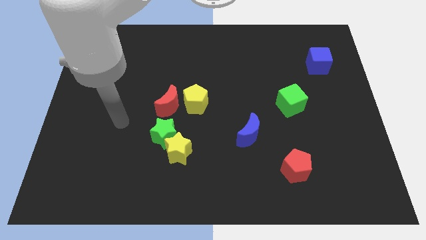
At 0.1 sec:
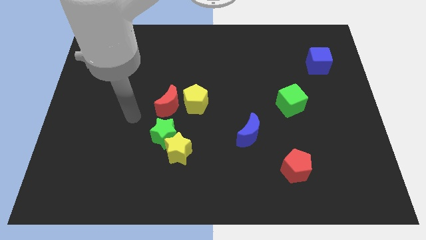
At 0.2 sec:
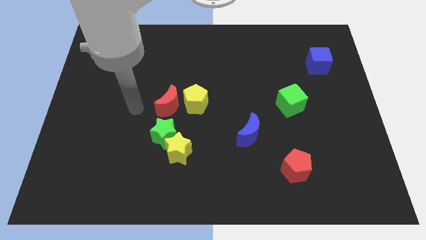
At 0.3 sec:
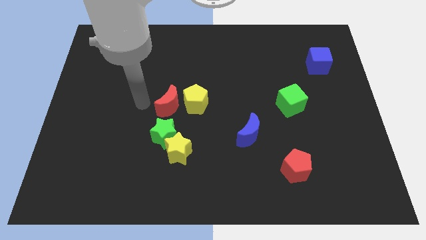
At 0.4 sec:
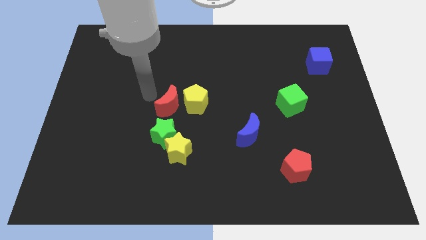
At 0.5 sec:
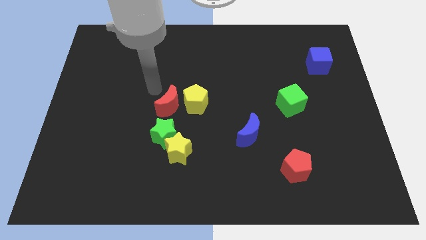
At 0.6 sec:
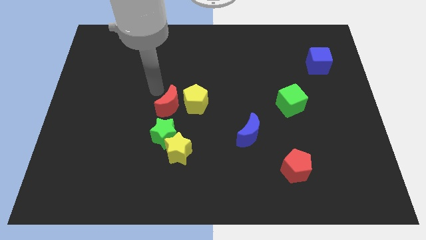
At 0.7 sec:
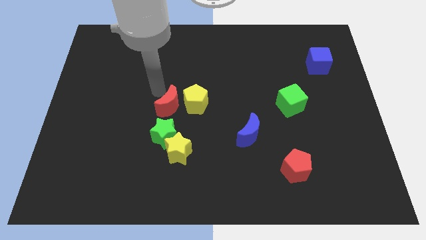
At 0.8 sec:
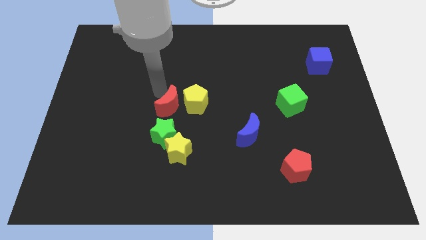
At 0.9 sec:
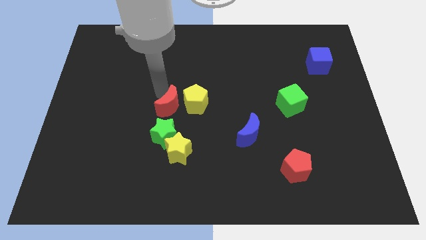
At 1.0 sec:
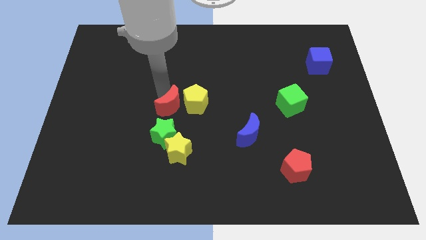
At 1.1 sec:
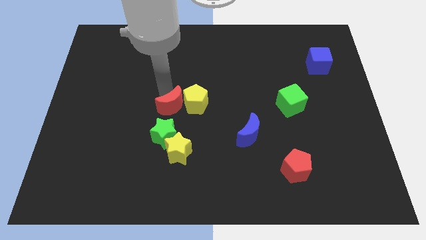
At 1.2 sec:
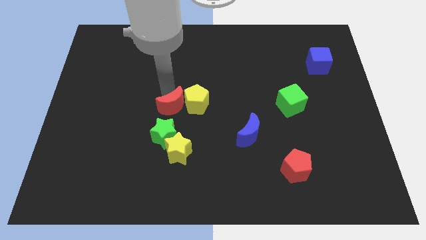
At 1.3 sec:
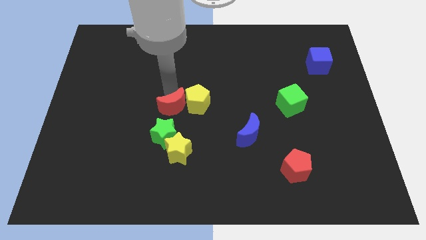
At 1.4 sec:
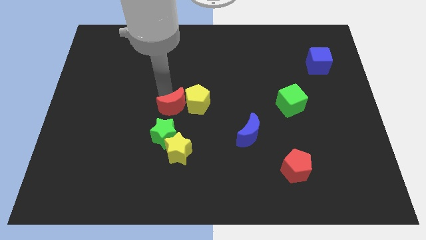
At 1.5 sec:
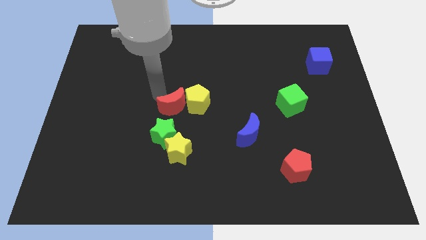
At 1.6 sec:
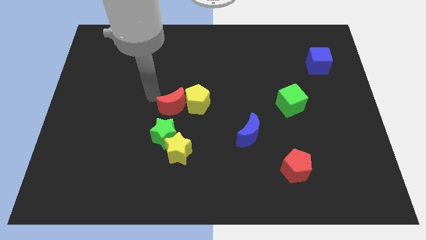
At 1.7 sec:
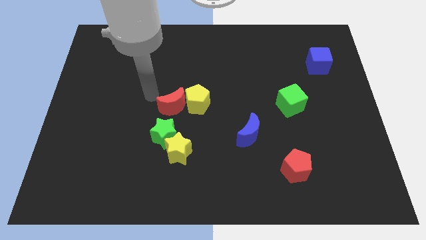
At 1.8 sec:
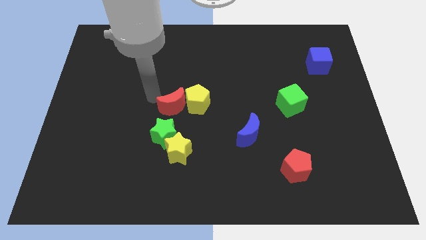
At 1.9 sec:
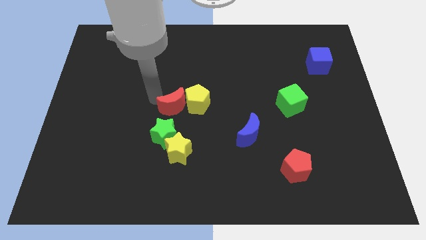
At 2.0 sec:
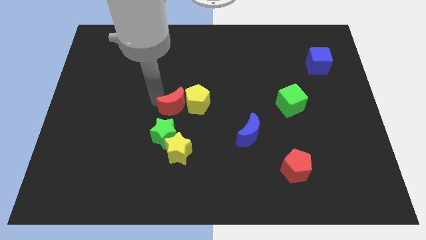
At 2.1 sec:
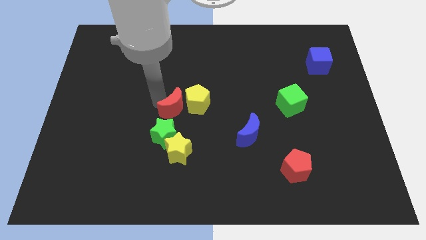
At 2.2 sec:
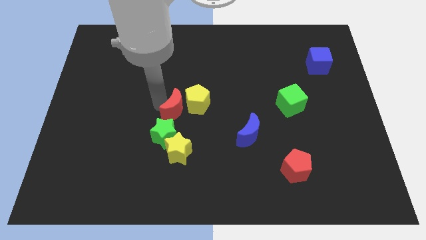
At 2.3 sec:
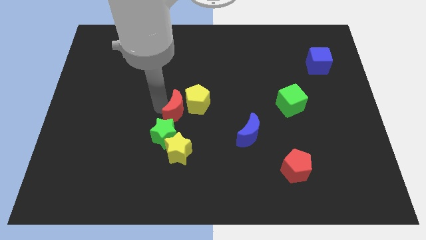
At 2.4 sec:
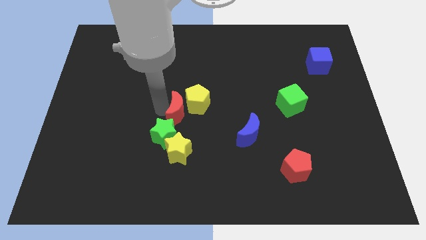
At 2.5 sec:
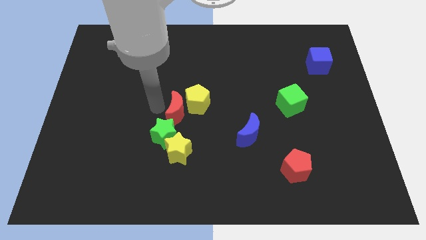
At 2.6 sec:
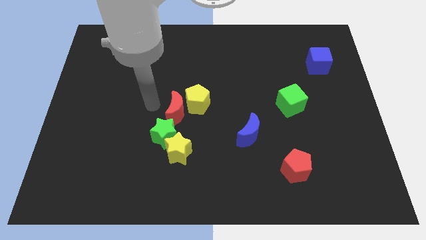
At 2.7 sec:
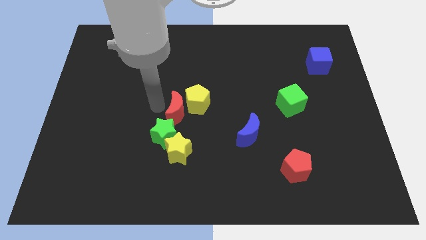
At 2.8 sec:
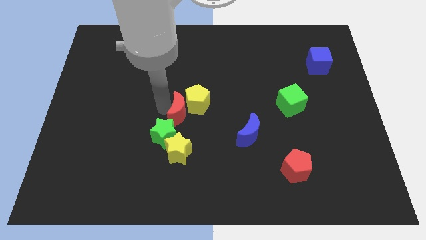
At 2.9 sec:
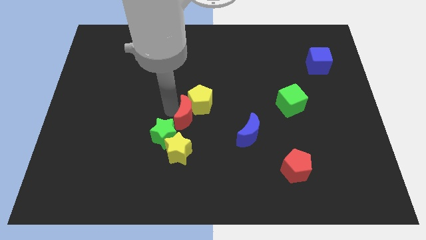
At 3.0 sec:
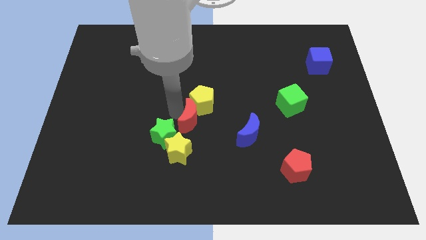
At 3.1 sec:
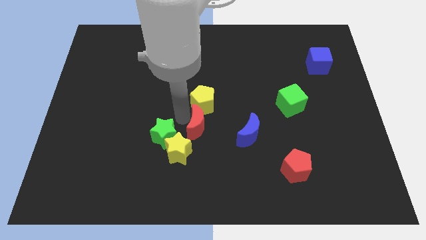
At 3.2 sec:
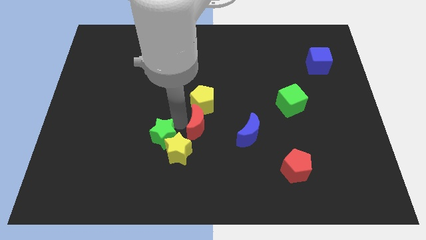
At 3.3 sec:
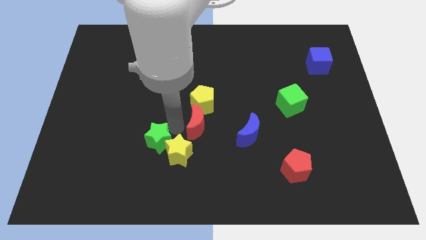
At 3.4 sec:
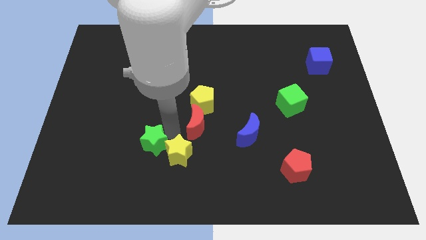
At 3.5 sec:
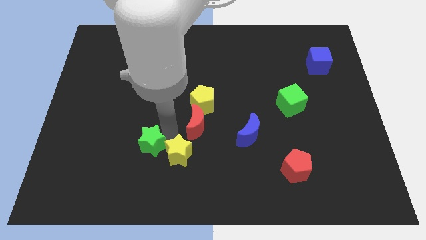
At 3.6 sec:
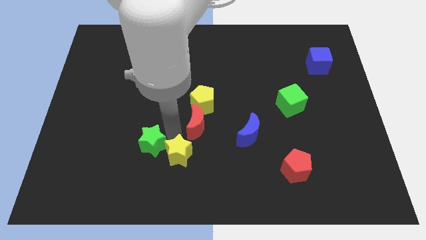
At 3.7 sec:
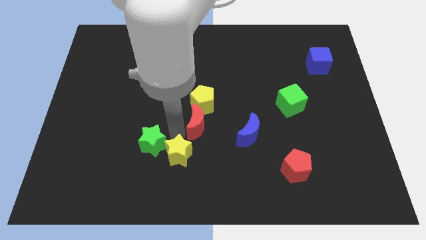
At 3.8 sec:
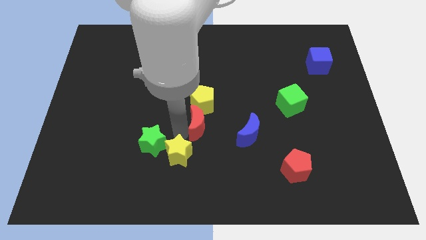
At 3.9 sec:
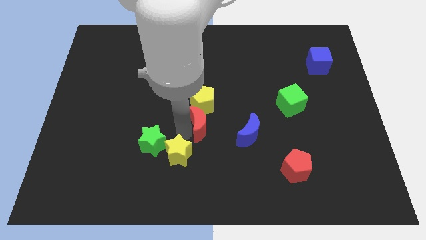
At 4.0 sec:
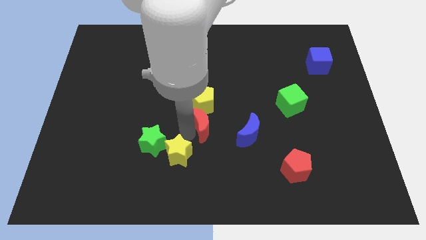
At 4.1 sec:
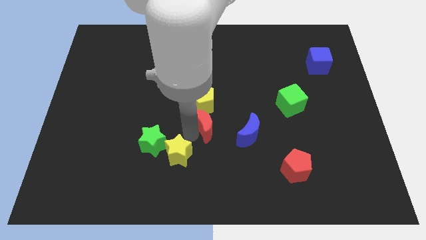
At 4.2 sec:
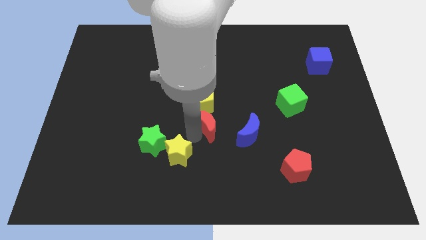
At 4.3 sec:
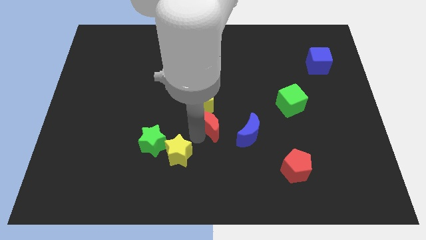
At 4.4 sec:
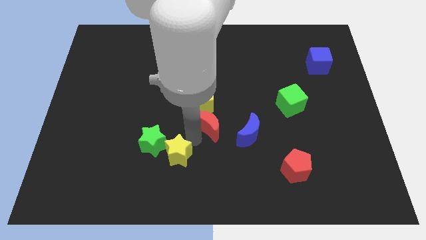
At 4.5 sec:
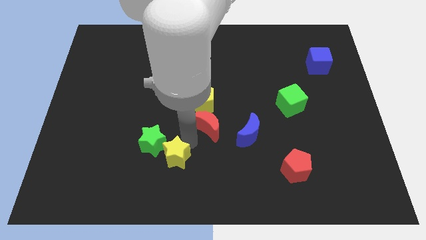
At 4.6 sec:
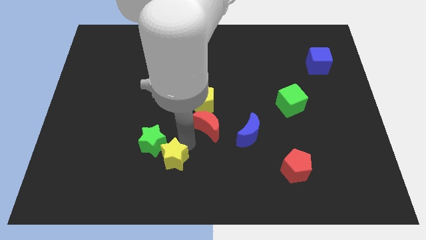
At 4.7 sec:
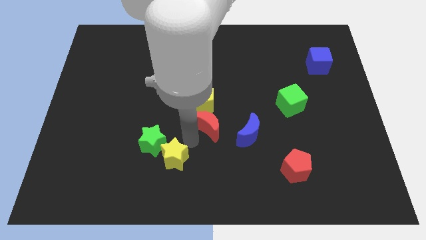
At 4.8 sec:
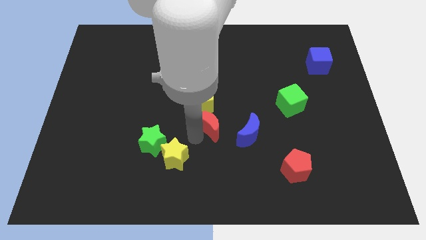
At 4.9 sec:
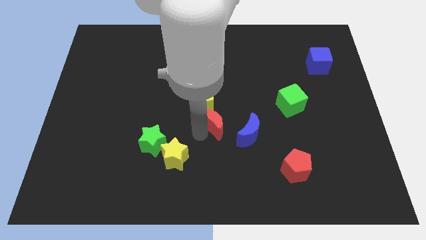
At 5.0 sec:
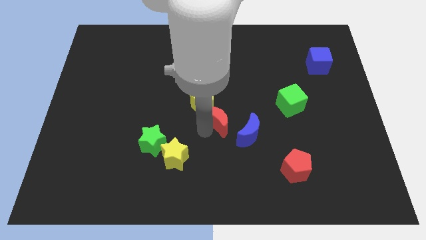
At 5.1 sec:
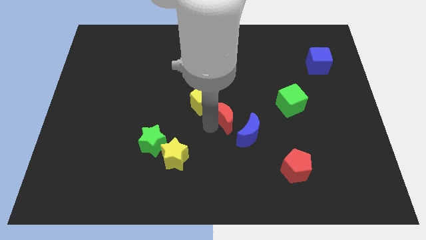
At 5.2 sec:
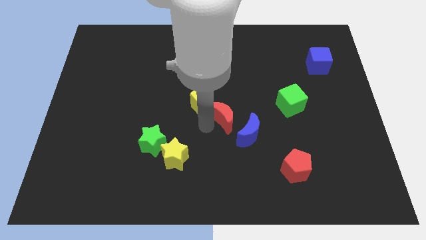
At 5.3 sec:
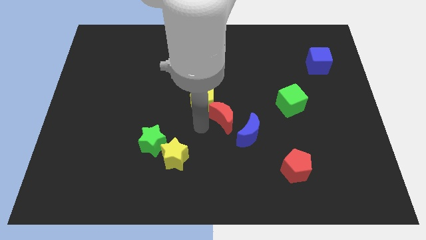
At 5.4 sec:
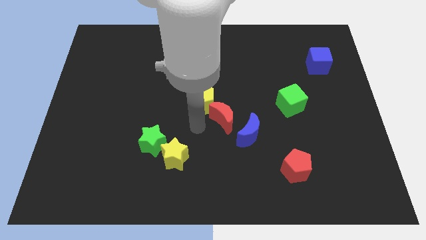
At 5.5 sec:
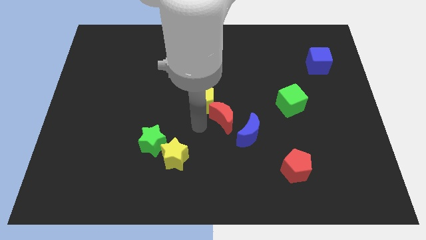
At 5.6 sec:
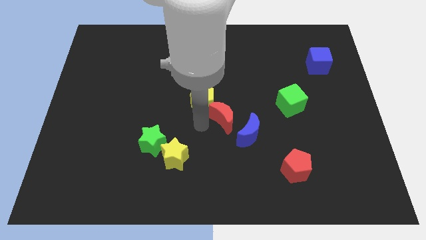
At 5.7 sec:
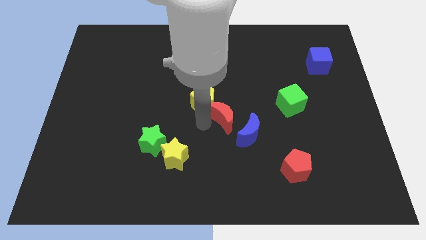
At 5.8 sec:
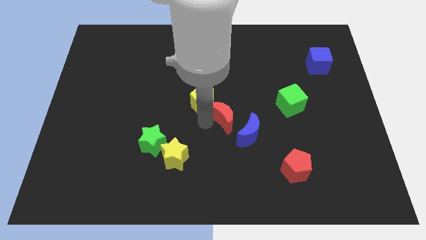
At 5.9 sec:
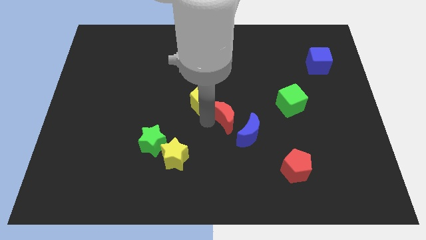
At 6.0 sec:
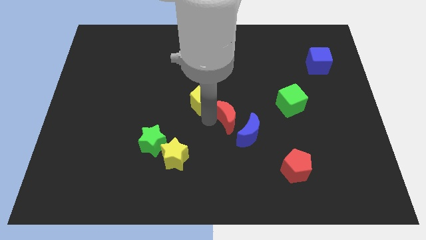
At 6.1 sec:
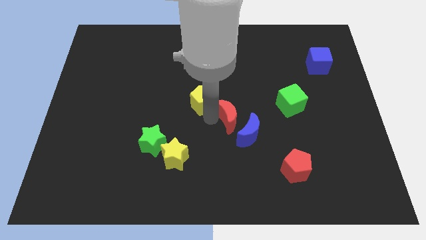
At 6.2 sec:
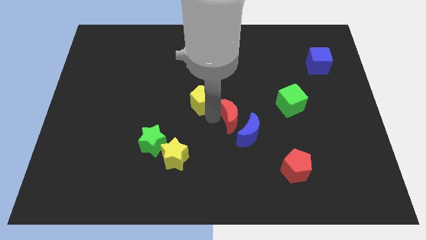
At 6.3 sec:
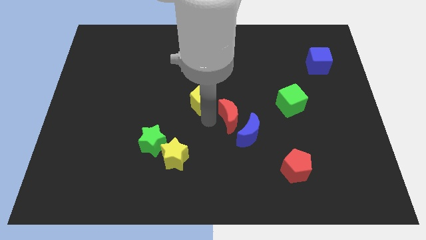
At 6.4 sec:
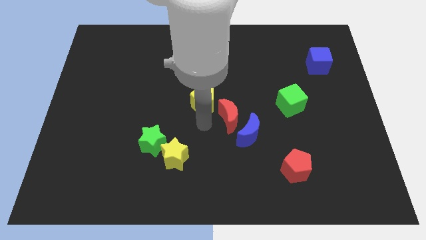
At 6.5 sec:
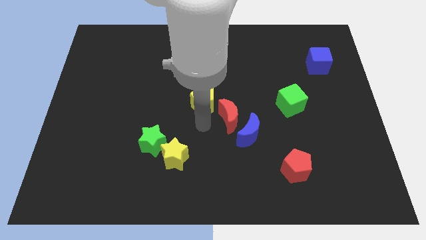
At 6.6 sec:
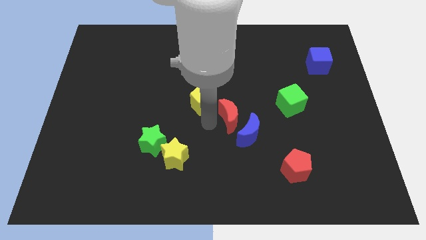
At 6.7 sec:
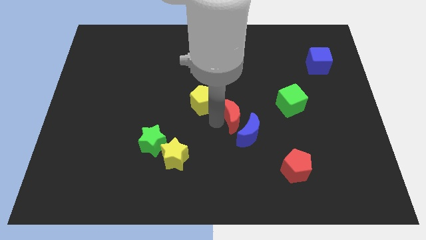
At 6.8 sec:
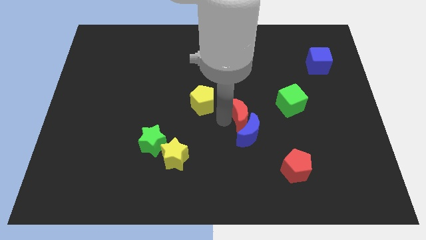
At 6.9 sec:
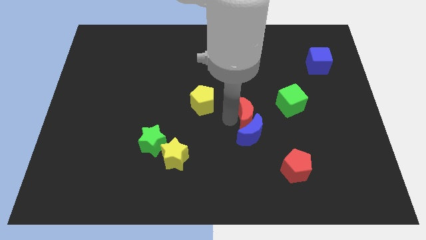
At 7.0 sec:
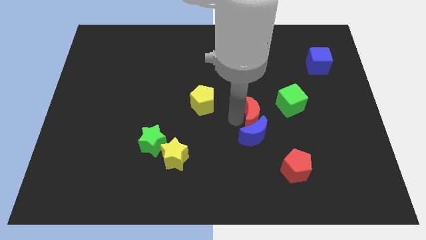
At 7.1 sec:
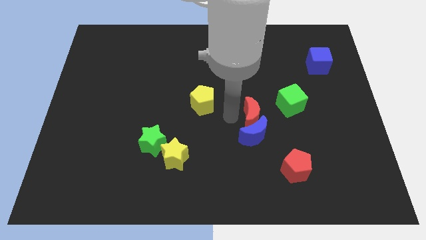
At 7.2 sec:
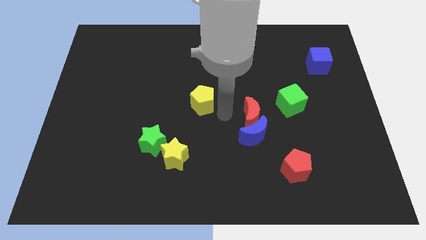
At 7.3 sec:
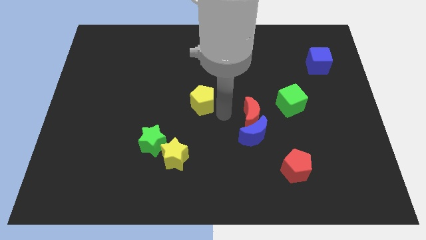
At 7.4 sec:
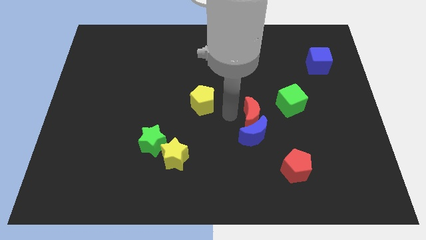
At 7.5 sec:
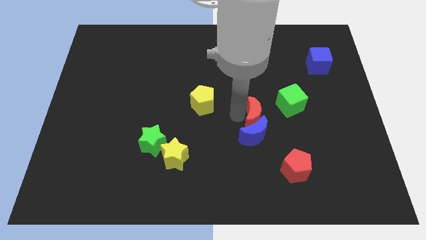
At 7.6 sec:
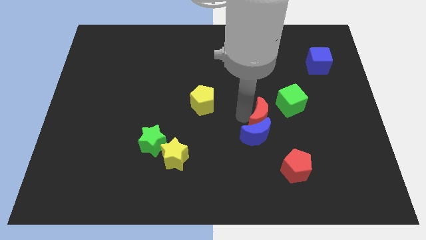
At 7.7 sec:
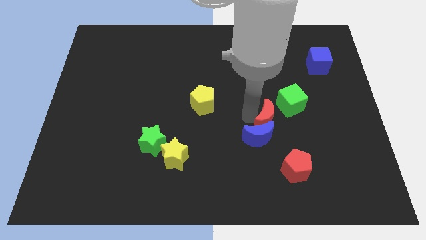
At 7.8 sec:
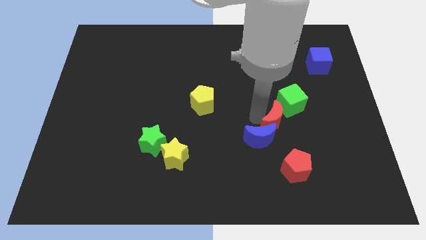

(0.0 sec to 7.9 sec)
push the red moon to the top of the red pentagon
